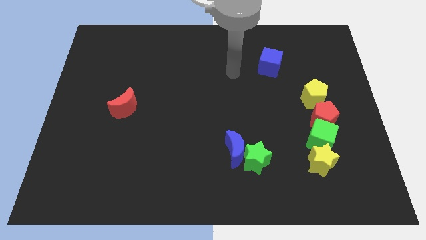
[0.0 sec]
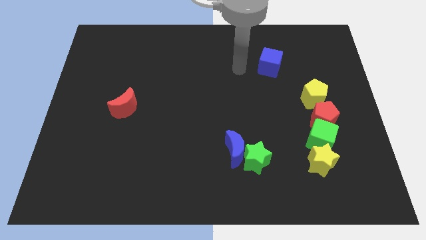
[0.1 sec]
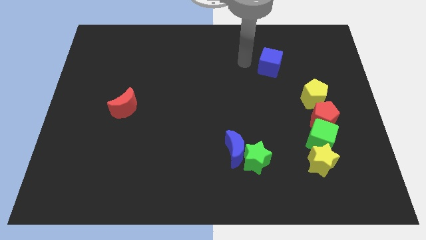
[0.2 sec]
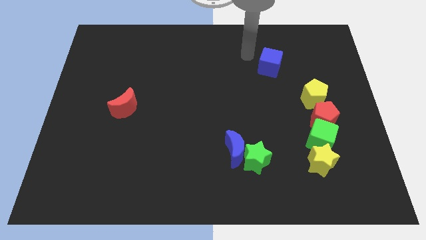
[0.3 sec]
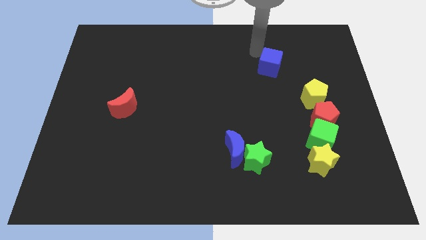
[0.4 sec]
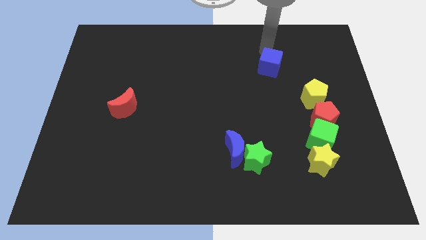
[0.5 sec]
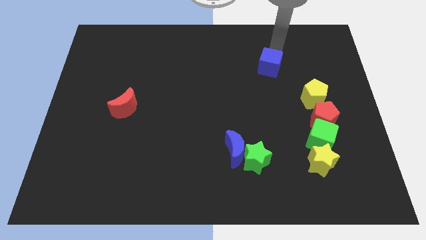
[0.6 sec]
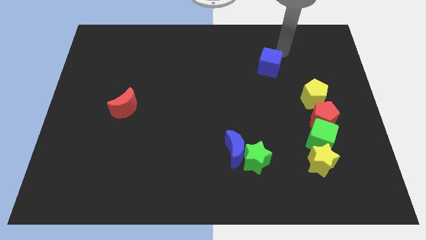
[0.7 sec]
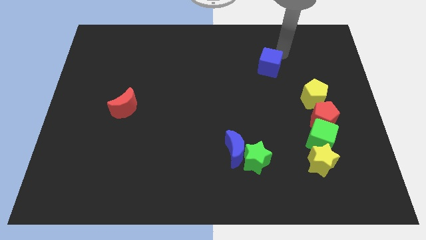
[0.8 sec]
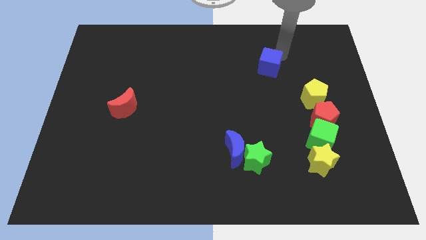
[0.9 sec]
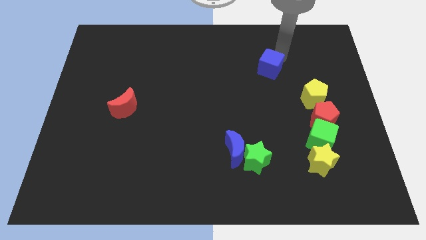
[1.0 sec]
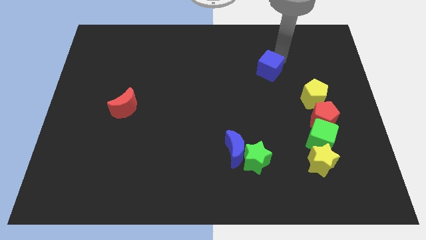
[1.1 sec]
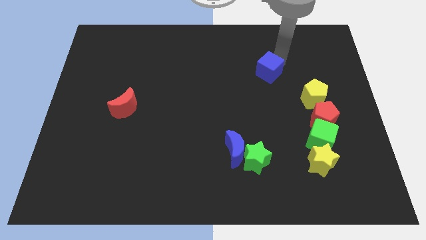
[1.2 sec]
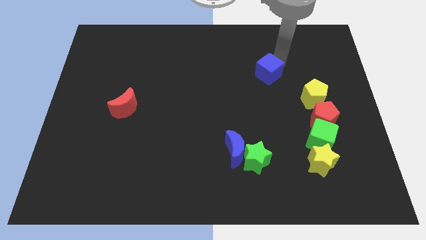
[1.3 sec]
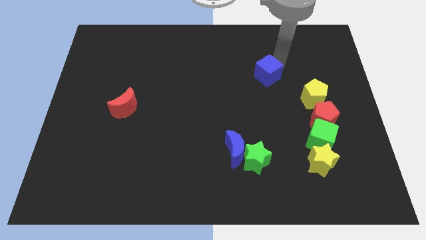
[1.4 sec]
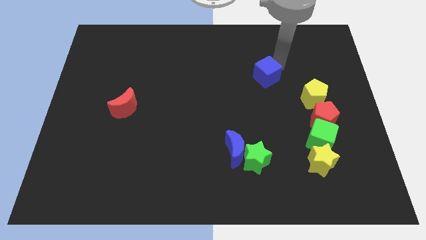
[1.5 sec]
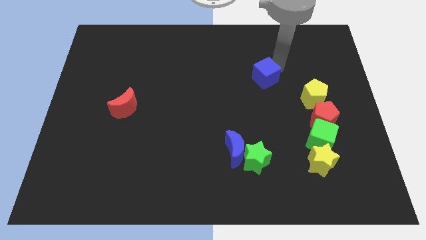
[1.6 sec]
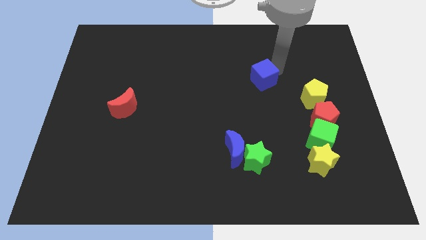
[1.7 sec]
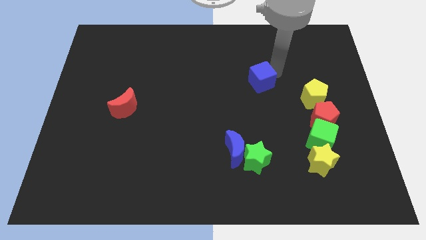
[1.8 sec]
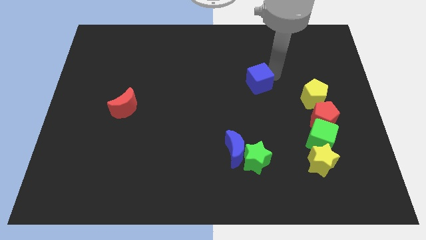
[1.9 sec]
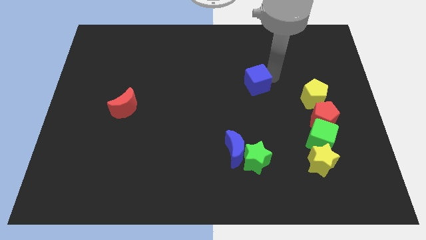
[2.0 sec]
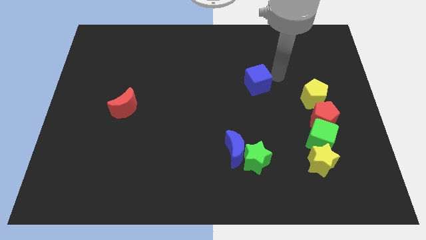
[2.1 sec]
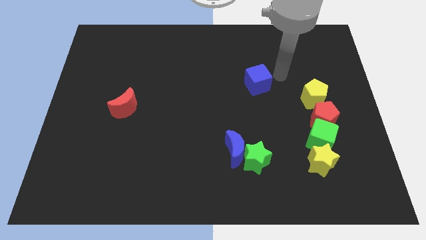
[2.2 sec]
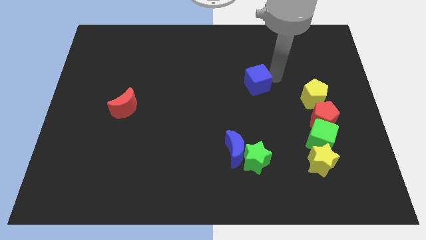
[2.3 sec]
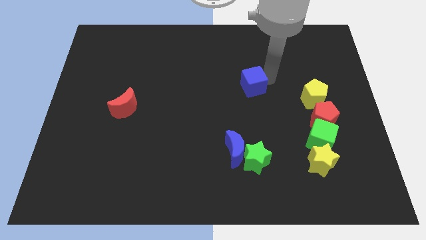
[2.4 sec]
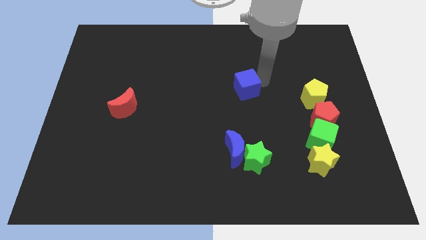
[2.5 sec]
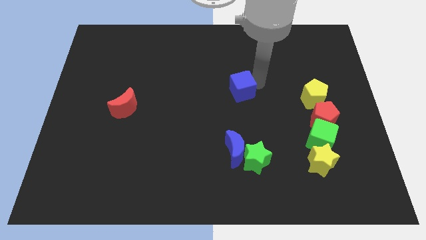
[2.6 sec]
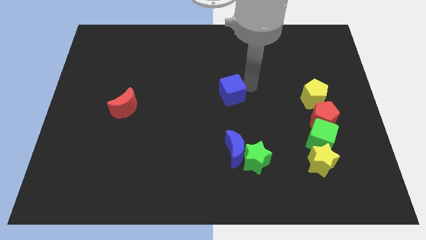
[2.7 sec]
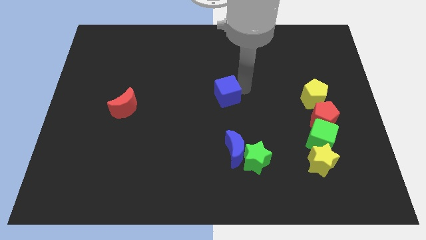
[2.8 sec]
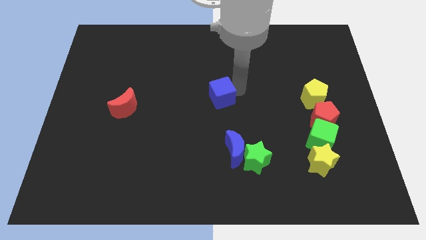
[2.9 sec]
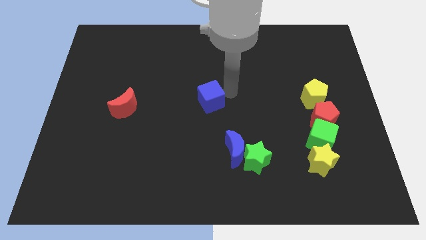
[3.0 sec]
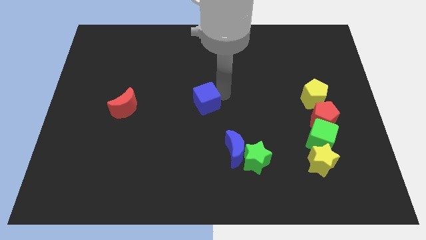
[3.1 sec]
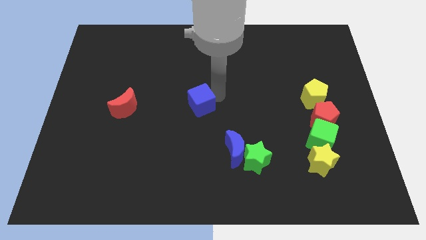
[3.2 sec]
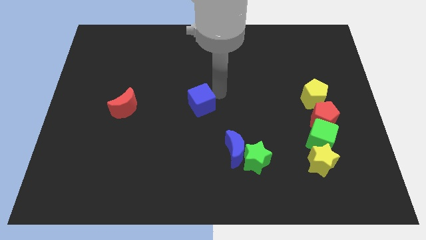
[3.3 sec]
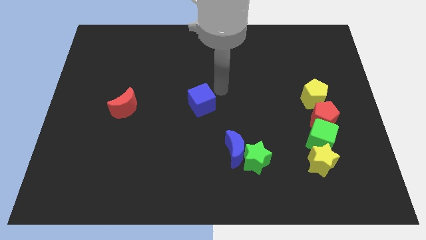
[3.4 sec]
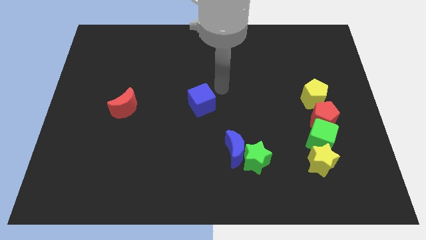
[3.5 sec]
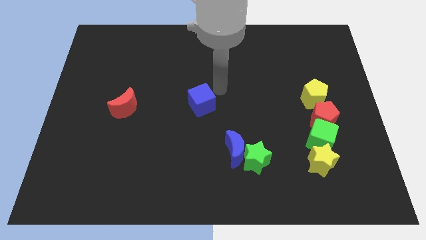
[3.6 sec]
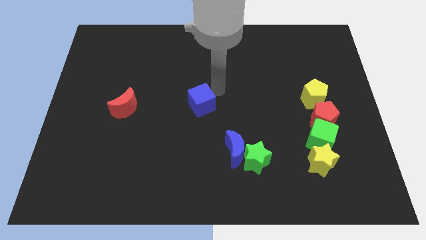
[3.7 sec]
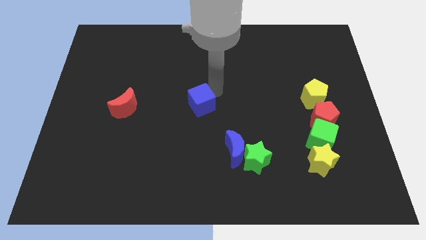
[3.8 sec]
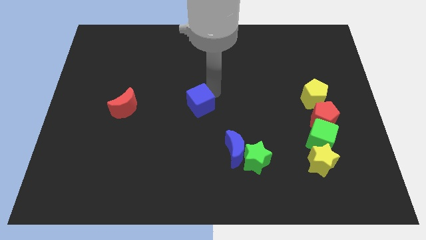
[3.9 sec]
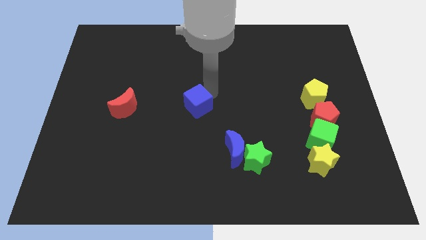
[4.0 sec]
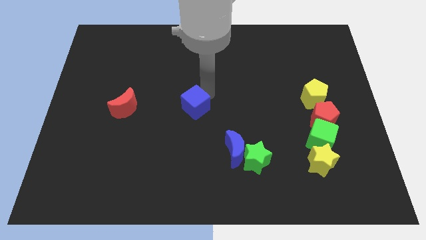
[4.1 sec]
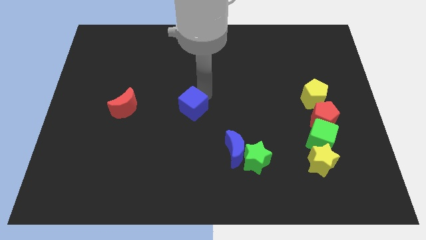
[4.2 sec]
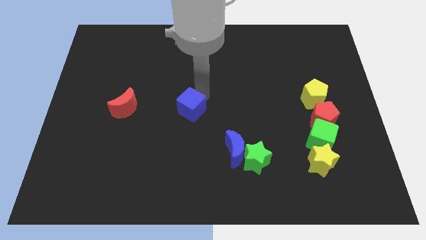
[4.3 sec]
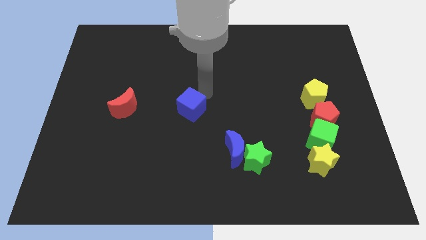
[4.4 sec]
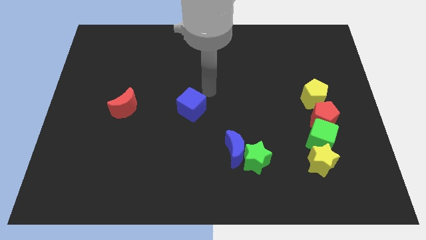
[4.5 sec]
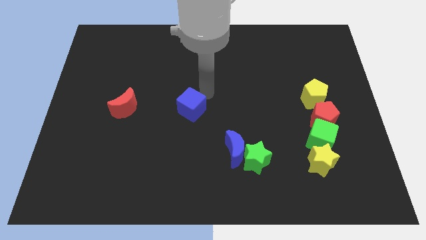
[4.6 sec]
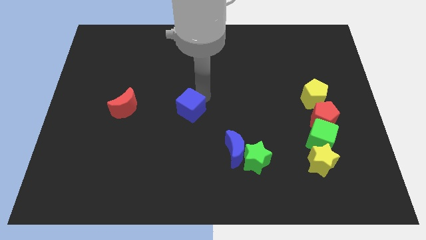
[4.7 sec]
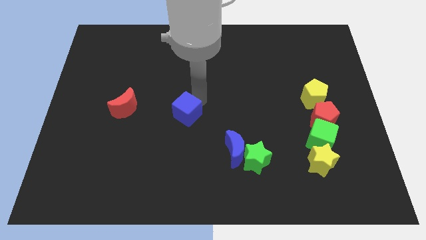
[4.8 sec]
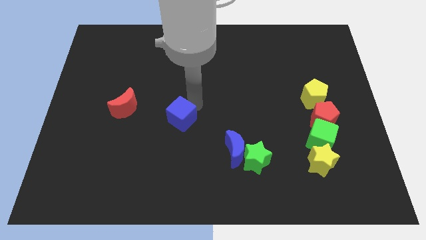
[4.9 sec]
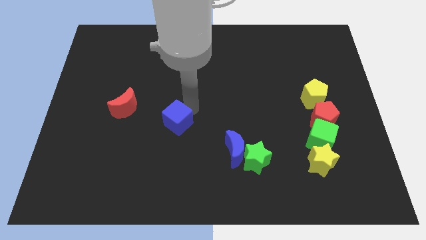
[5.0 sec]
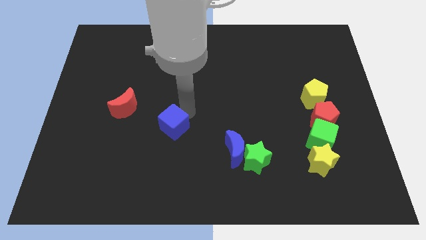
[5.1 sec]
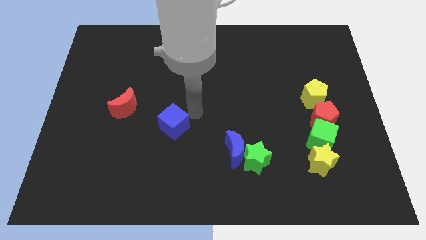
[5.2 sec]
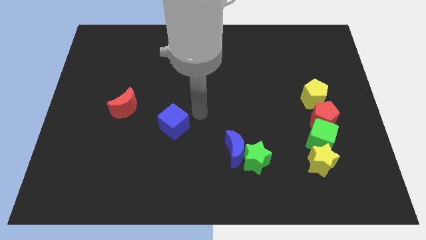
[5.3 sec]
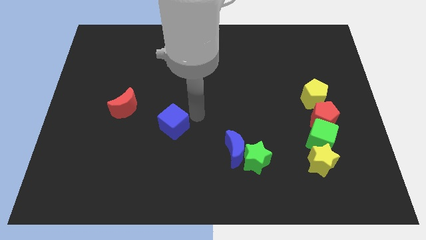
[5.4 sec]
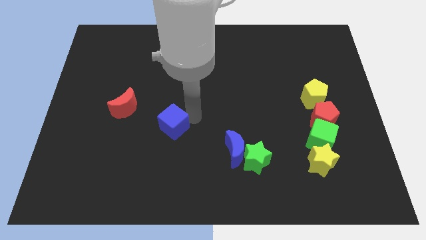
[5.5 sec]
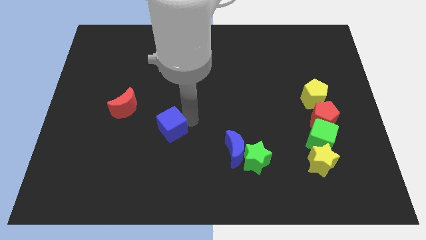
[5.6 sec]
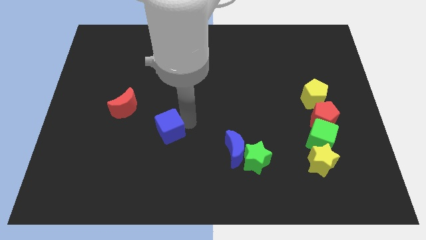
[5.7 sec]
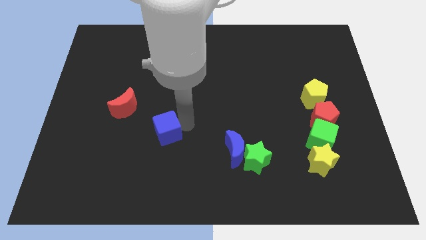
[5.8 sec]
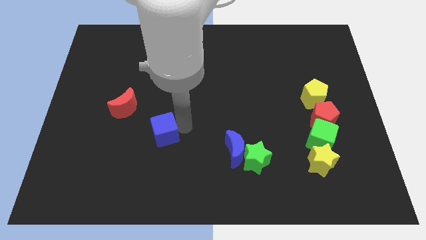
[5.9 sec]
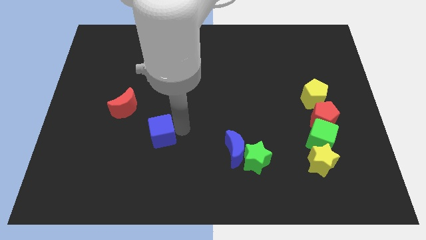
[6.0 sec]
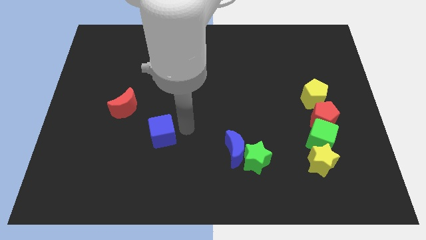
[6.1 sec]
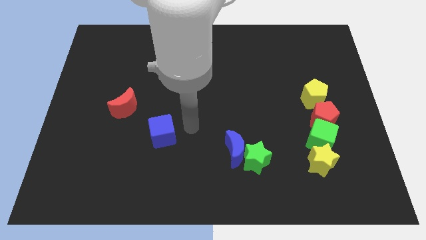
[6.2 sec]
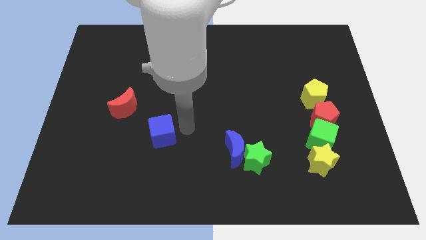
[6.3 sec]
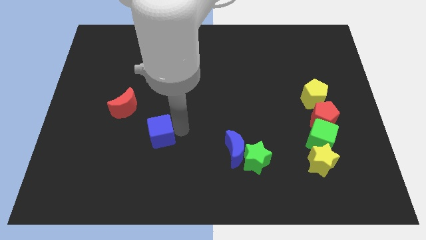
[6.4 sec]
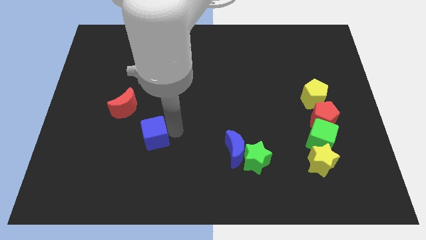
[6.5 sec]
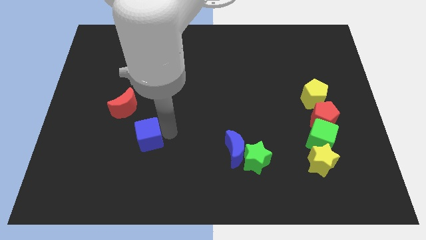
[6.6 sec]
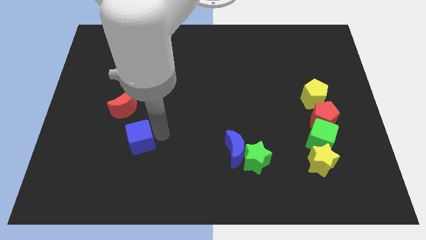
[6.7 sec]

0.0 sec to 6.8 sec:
slide the blue cube to the bottom side of the red moon
